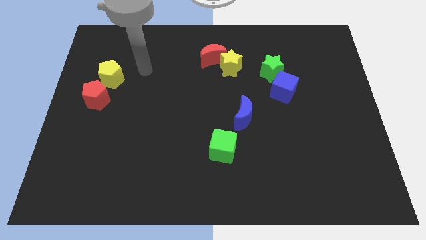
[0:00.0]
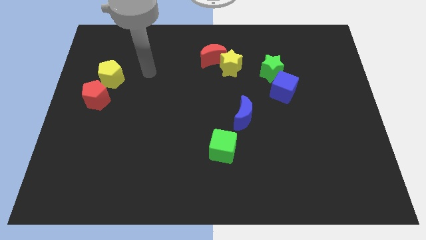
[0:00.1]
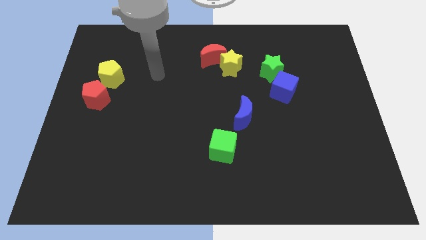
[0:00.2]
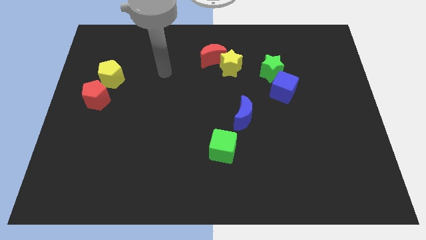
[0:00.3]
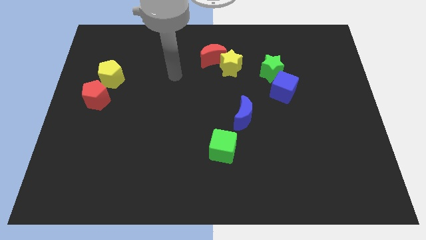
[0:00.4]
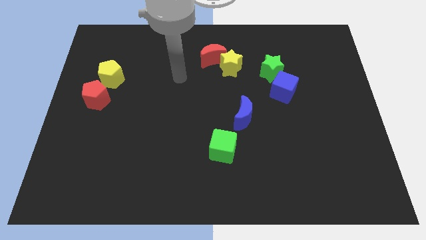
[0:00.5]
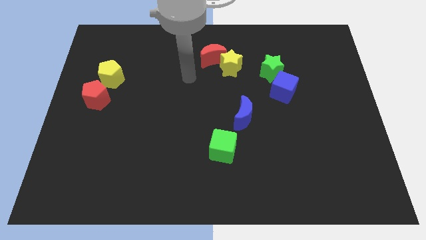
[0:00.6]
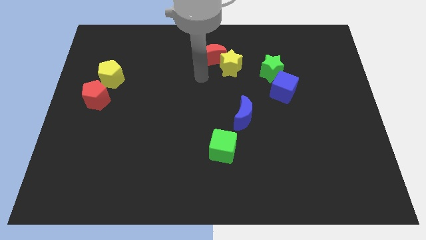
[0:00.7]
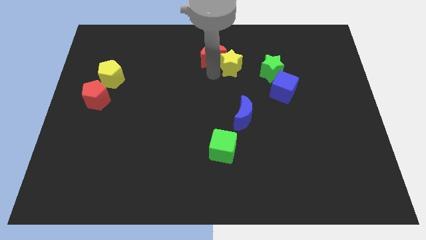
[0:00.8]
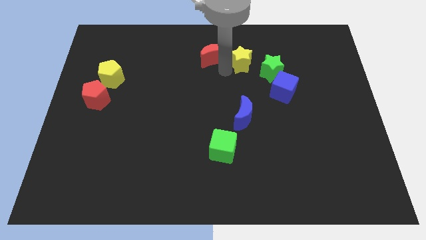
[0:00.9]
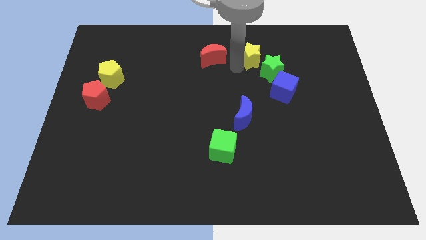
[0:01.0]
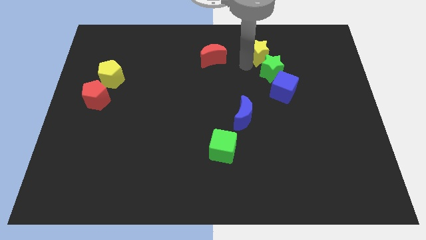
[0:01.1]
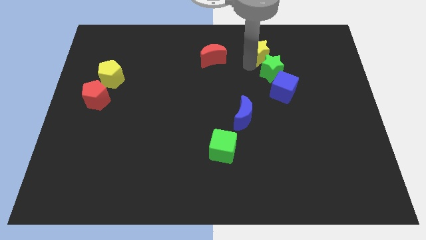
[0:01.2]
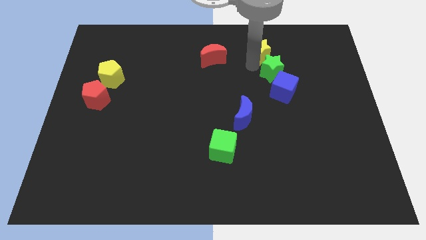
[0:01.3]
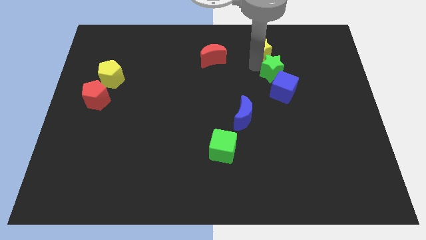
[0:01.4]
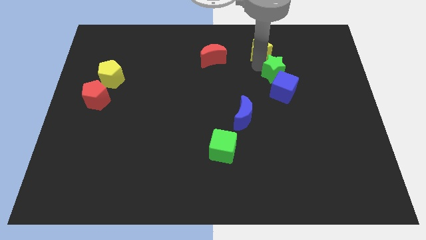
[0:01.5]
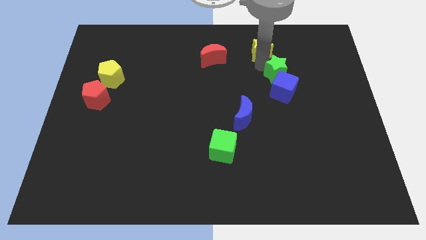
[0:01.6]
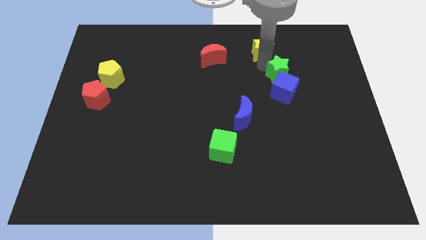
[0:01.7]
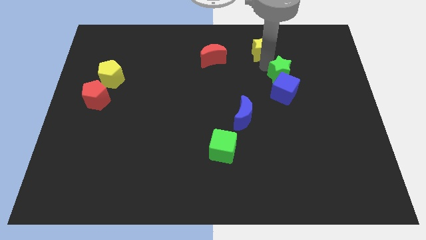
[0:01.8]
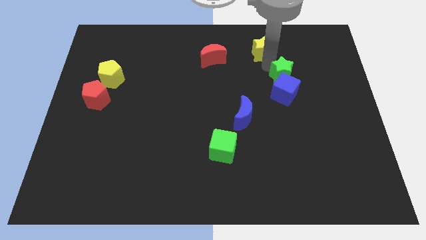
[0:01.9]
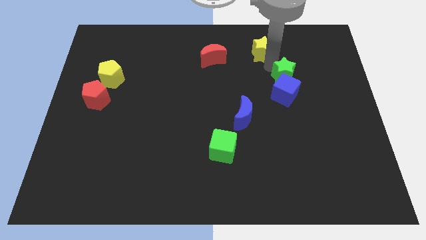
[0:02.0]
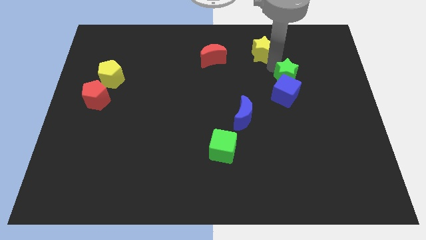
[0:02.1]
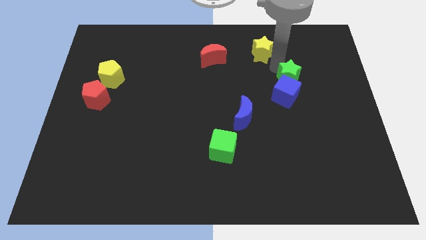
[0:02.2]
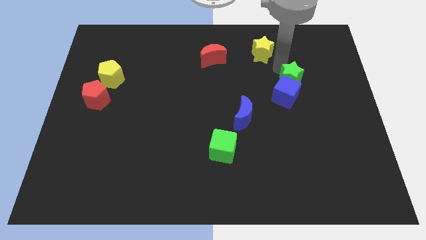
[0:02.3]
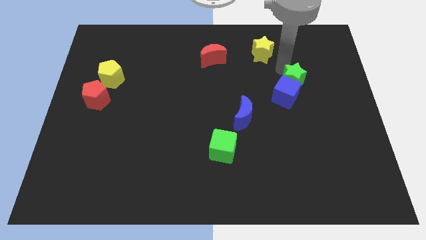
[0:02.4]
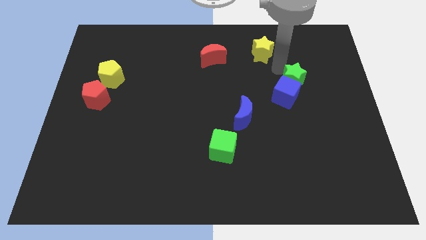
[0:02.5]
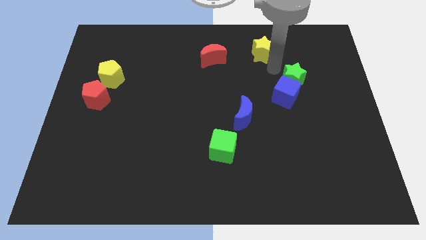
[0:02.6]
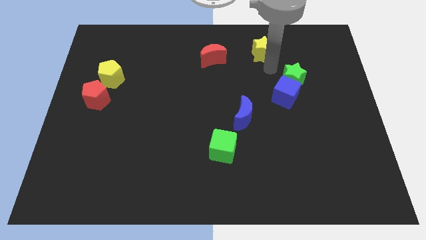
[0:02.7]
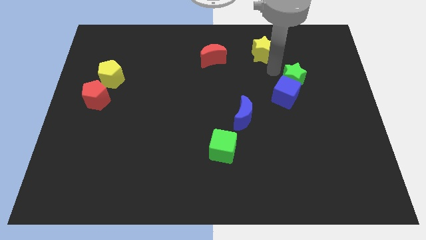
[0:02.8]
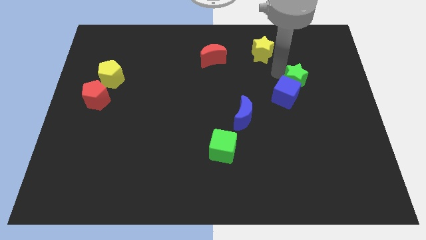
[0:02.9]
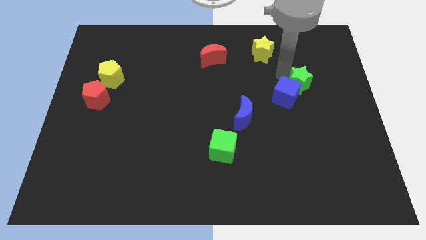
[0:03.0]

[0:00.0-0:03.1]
slide the green star a little down and then right

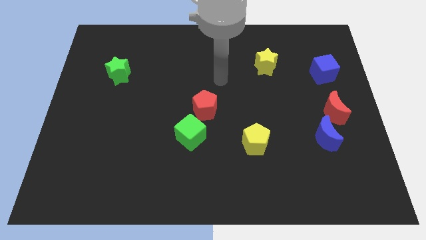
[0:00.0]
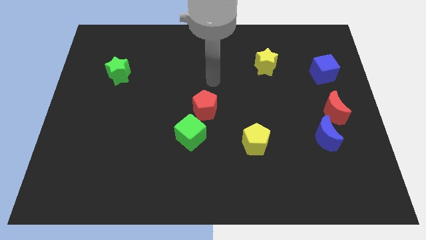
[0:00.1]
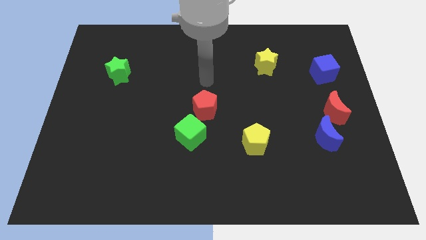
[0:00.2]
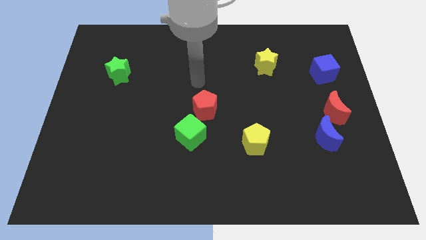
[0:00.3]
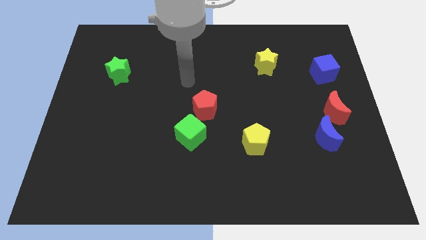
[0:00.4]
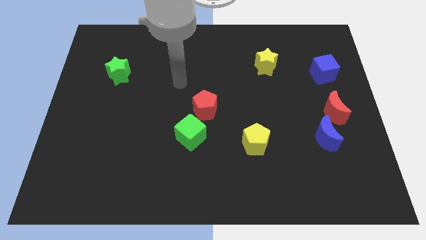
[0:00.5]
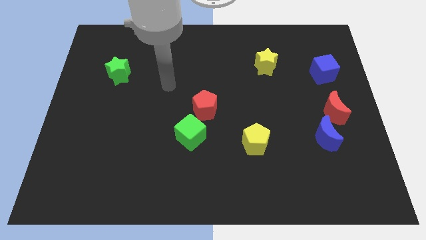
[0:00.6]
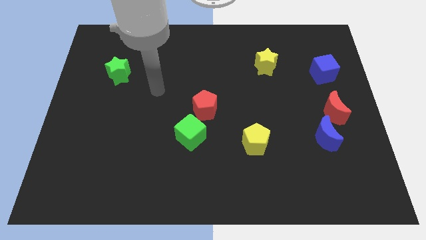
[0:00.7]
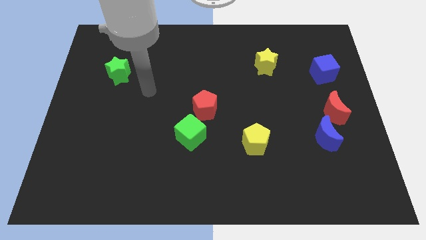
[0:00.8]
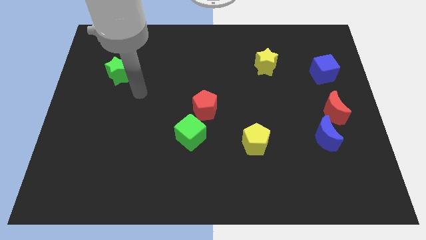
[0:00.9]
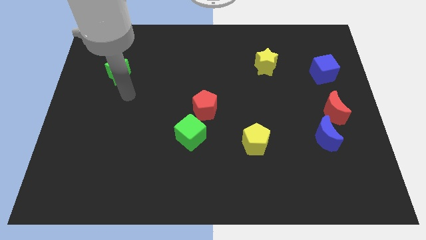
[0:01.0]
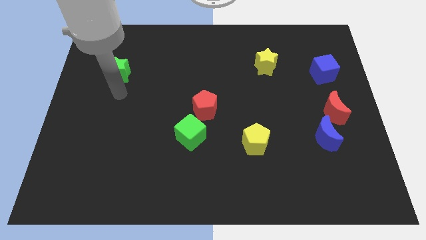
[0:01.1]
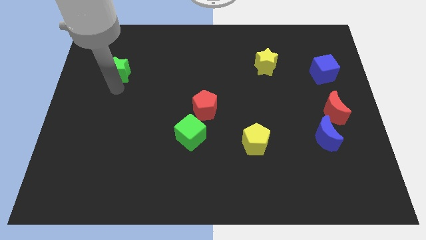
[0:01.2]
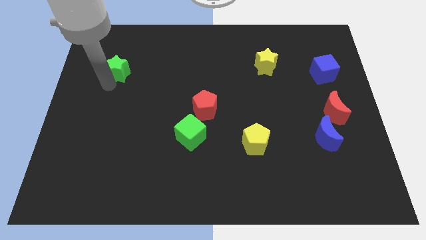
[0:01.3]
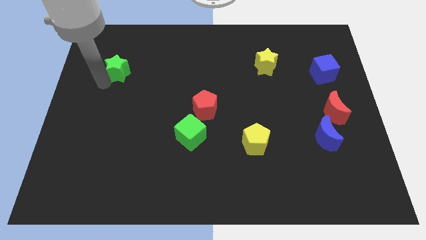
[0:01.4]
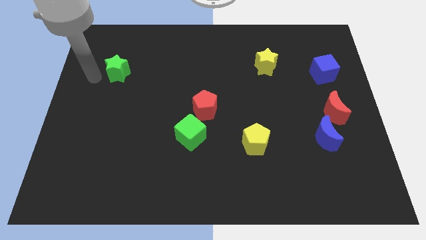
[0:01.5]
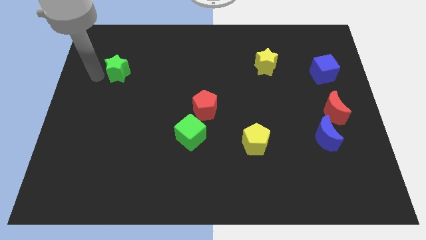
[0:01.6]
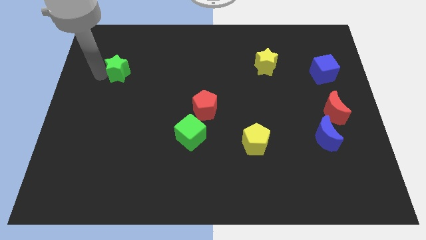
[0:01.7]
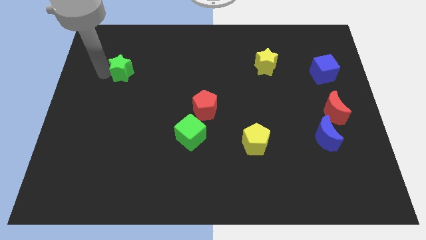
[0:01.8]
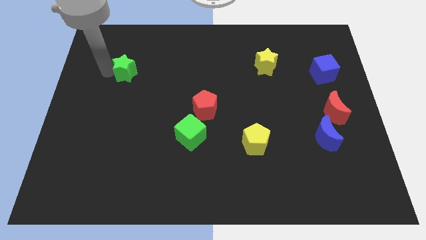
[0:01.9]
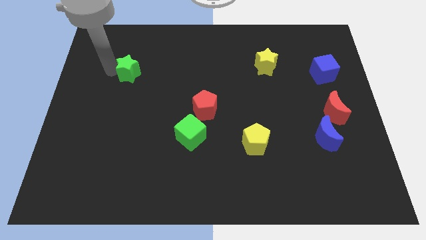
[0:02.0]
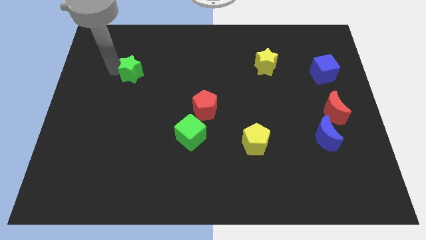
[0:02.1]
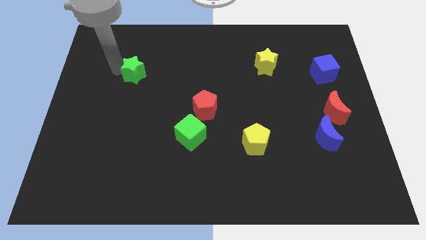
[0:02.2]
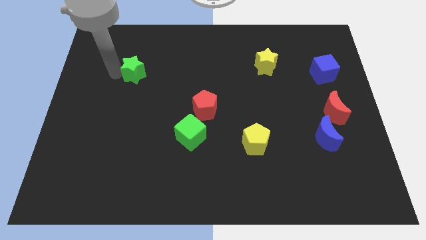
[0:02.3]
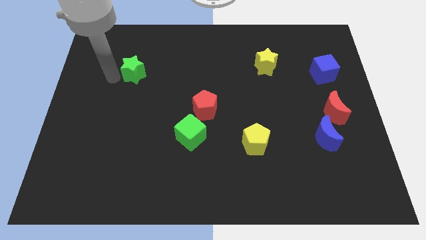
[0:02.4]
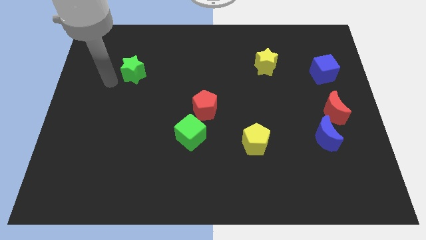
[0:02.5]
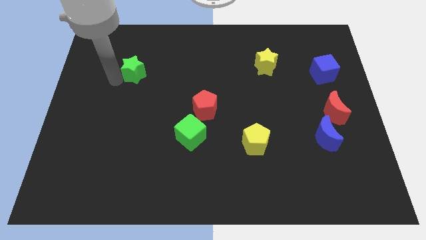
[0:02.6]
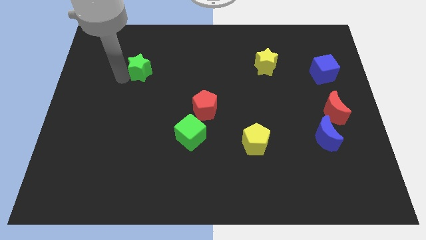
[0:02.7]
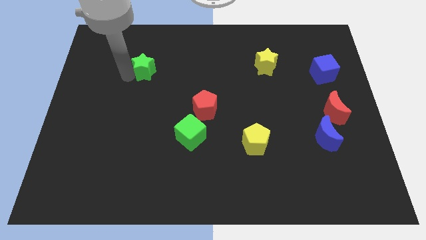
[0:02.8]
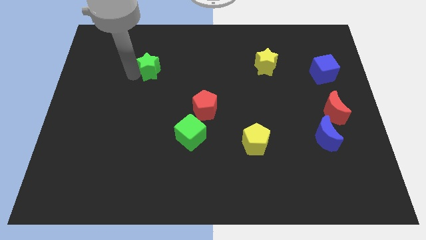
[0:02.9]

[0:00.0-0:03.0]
slide the green star to the right a little bit

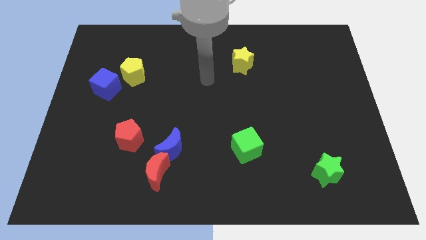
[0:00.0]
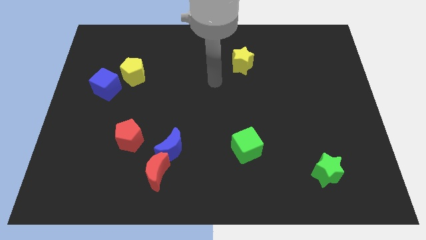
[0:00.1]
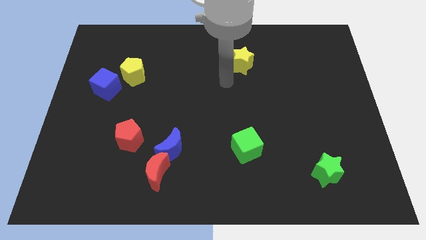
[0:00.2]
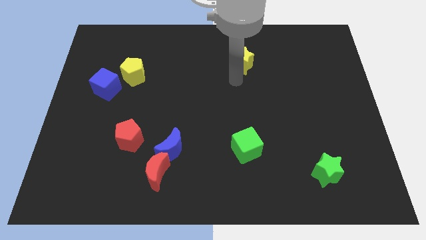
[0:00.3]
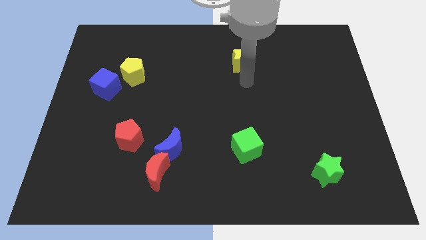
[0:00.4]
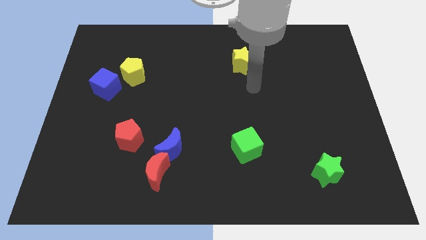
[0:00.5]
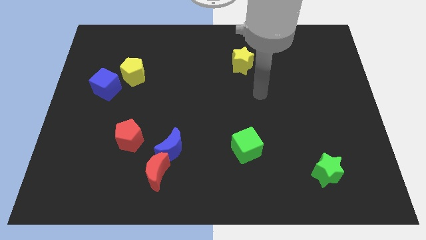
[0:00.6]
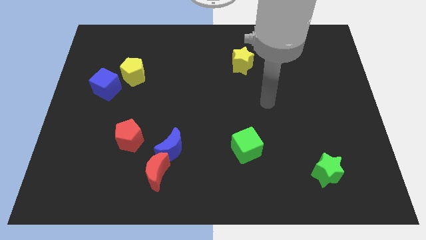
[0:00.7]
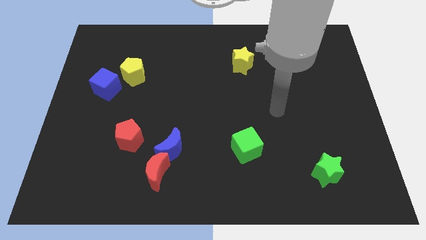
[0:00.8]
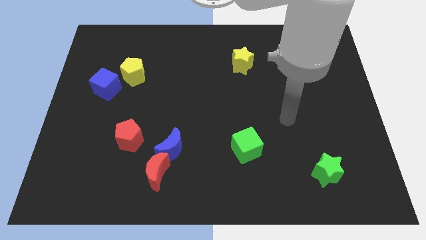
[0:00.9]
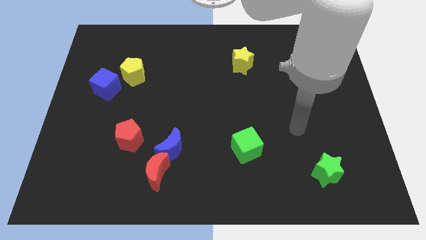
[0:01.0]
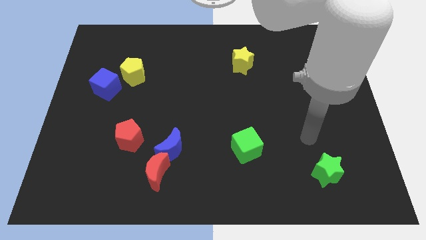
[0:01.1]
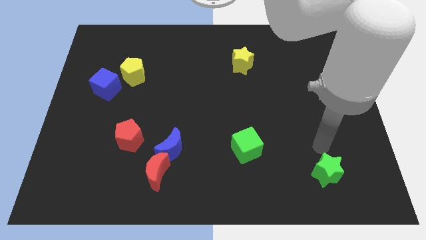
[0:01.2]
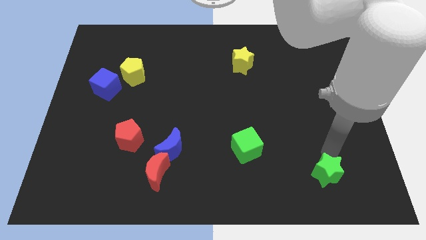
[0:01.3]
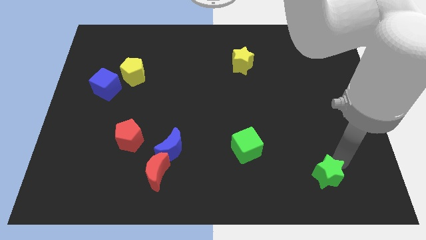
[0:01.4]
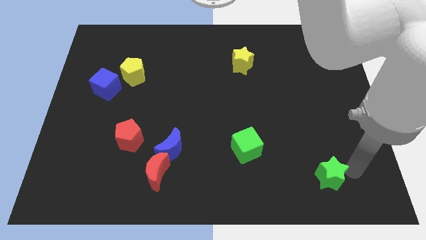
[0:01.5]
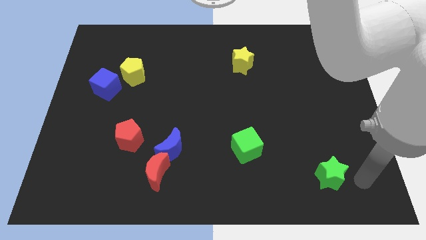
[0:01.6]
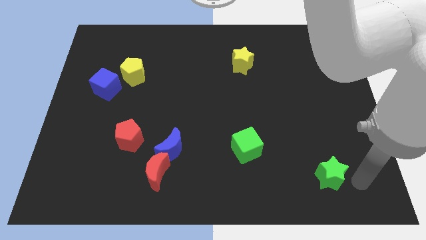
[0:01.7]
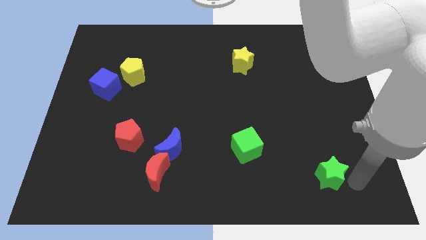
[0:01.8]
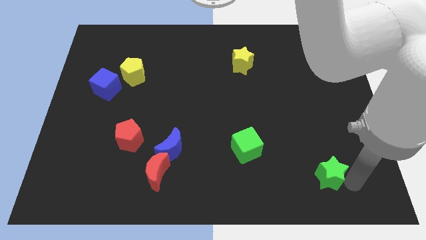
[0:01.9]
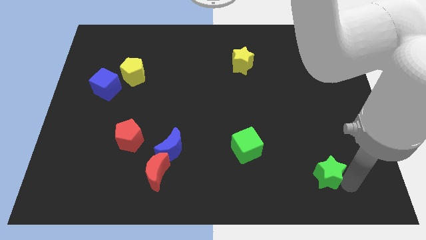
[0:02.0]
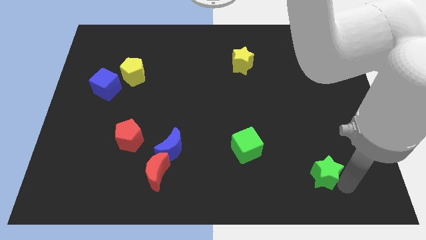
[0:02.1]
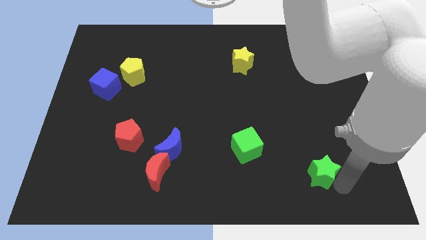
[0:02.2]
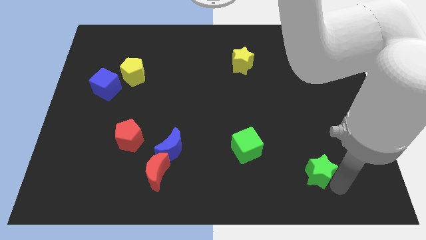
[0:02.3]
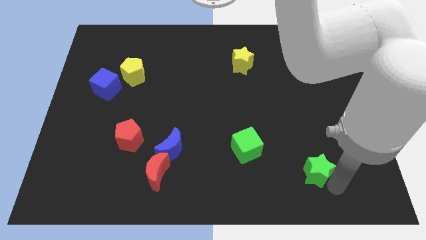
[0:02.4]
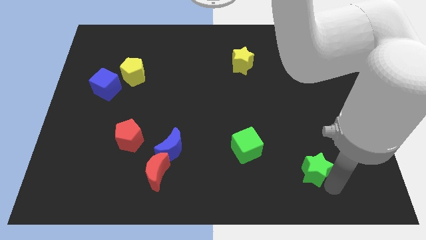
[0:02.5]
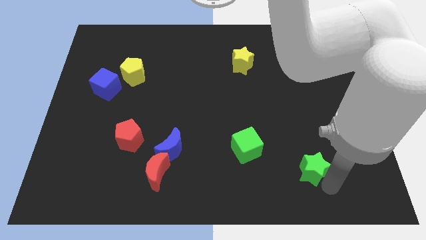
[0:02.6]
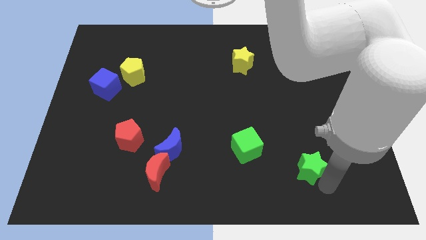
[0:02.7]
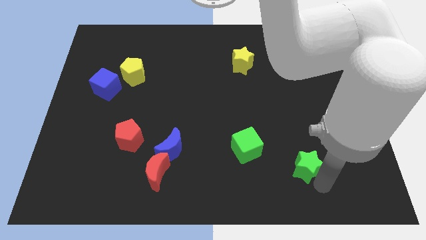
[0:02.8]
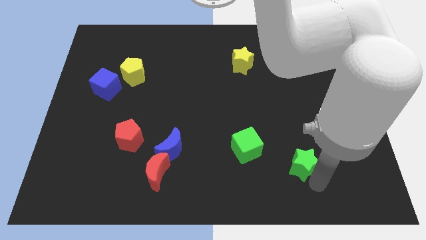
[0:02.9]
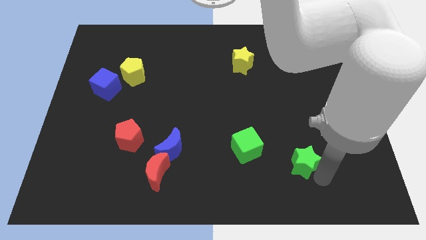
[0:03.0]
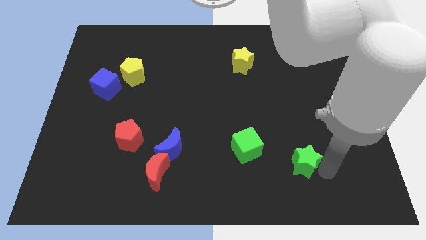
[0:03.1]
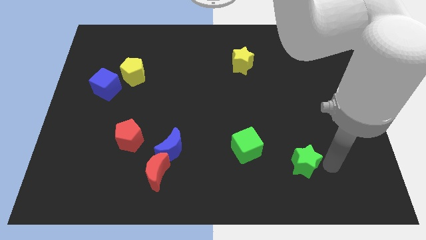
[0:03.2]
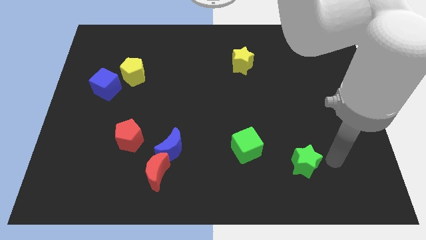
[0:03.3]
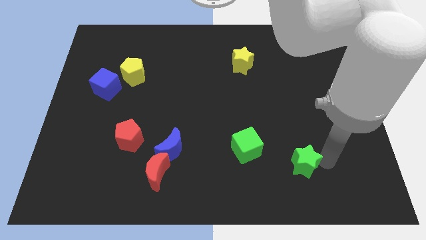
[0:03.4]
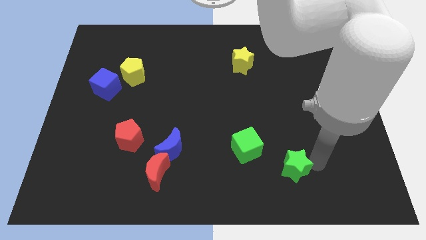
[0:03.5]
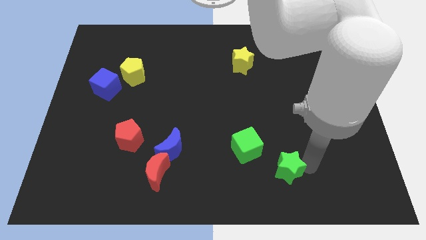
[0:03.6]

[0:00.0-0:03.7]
move the green star somewhat to the left
